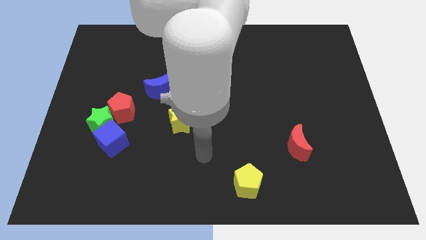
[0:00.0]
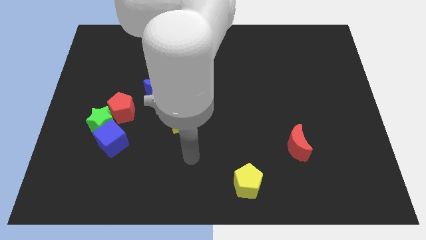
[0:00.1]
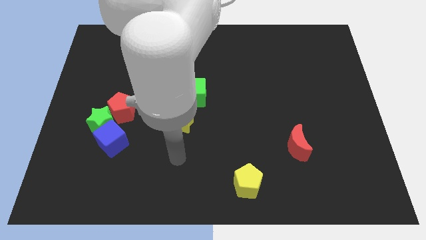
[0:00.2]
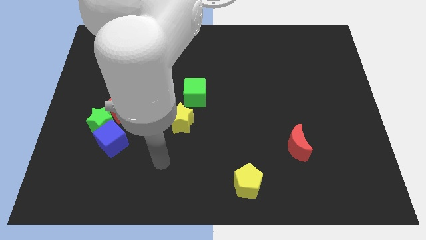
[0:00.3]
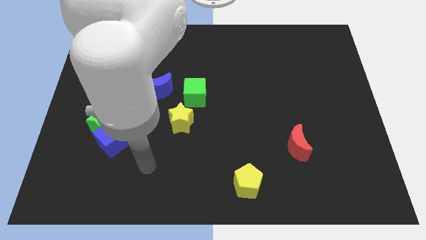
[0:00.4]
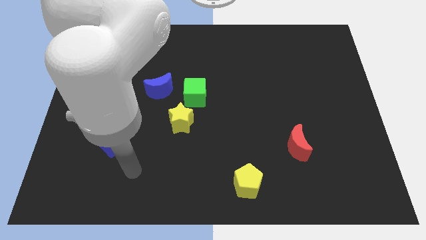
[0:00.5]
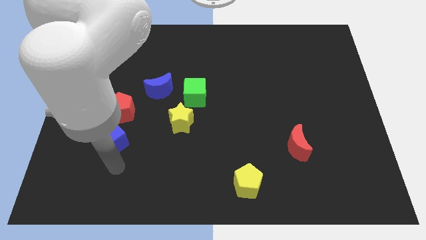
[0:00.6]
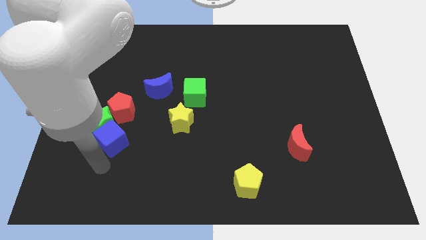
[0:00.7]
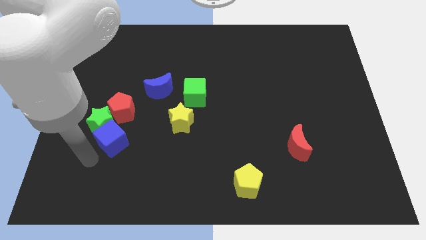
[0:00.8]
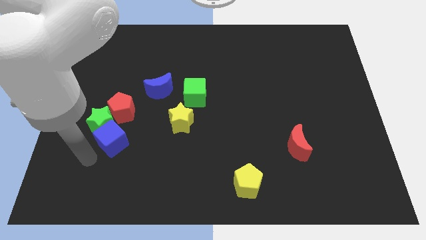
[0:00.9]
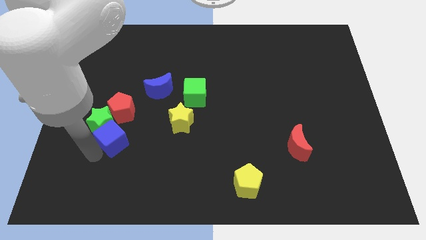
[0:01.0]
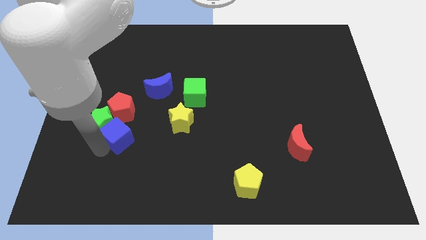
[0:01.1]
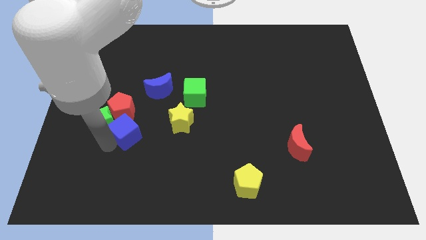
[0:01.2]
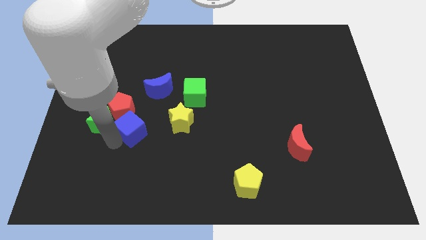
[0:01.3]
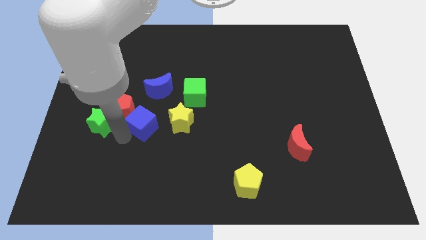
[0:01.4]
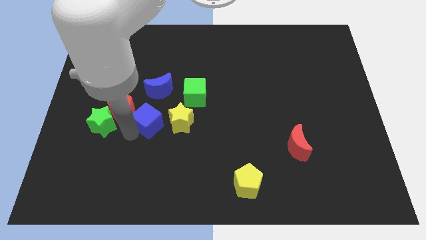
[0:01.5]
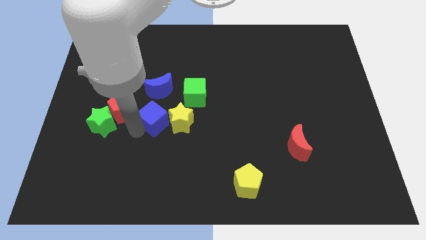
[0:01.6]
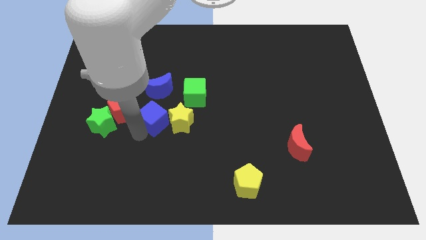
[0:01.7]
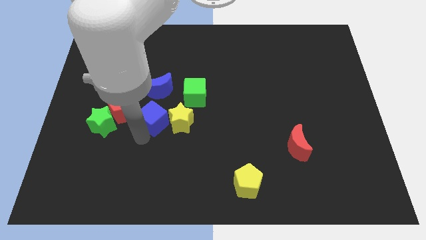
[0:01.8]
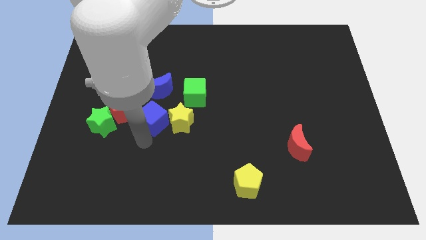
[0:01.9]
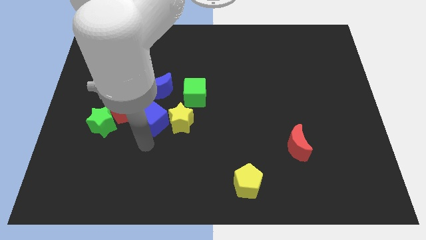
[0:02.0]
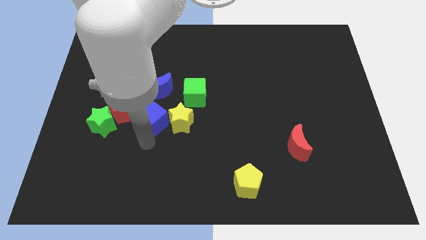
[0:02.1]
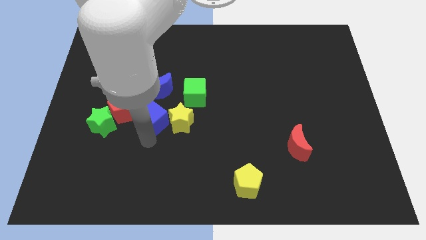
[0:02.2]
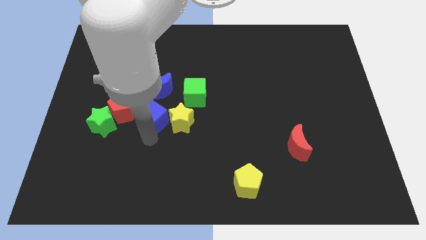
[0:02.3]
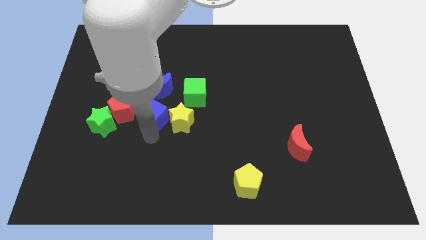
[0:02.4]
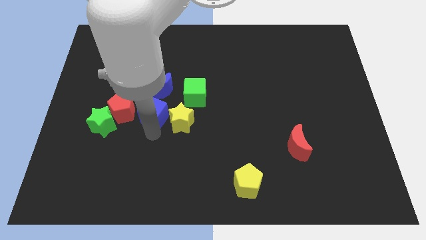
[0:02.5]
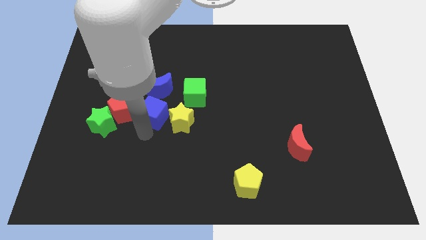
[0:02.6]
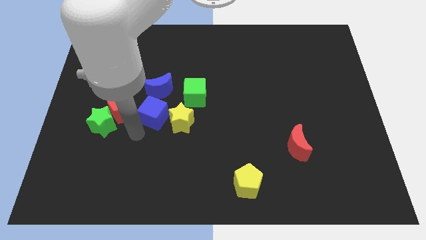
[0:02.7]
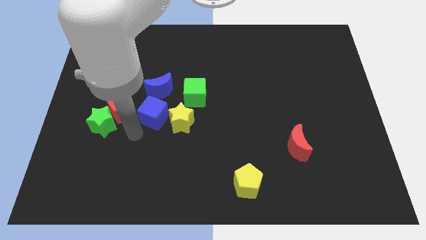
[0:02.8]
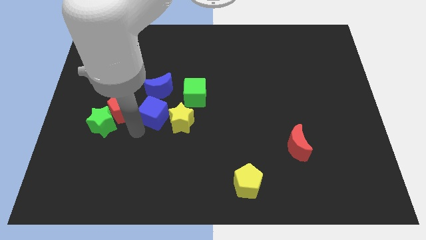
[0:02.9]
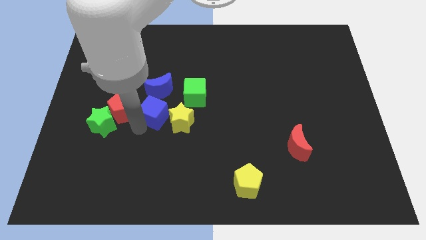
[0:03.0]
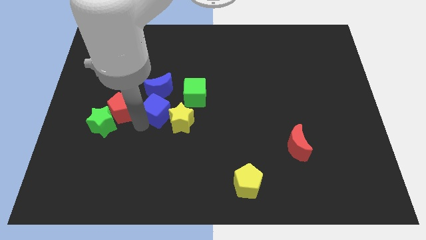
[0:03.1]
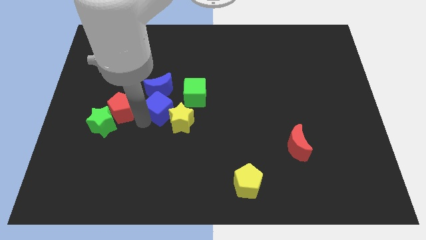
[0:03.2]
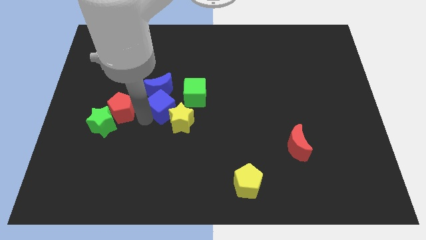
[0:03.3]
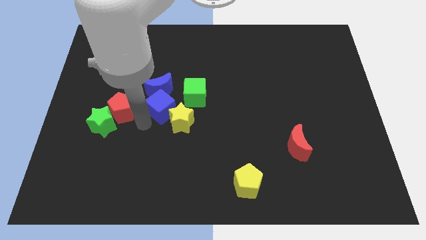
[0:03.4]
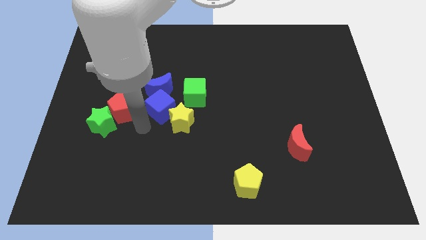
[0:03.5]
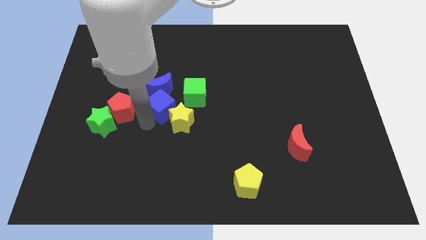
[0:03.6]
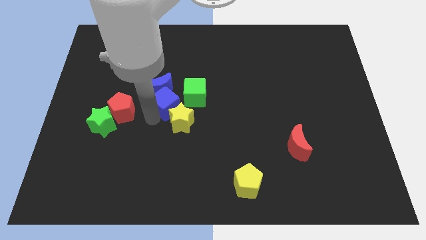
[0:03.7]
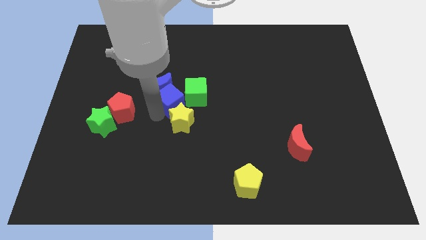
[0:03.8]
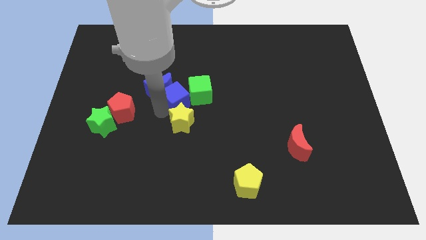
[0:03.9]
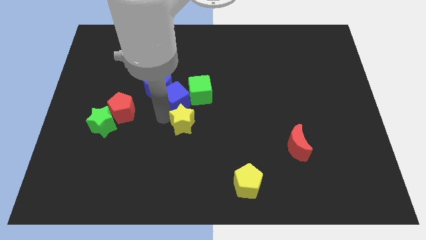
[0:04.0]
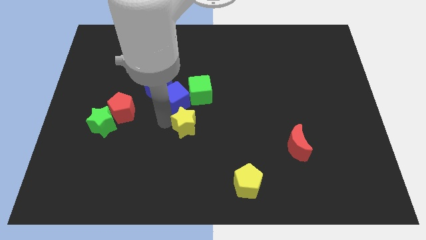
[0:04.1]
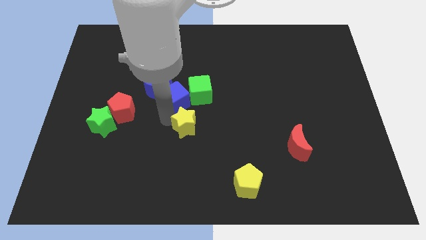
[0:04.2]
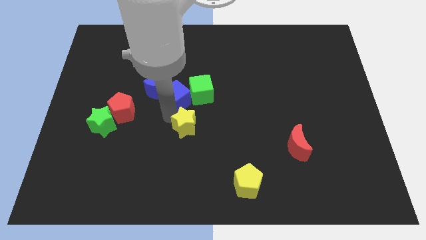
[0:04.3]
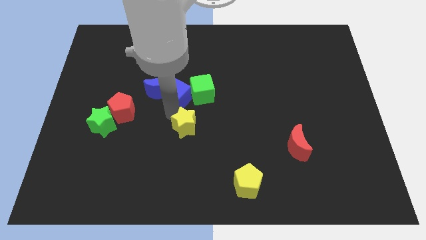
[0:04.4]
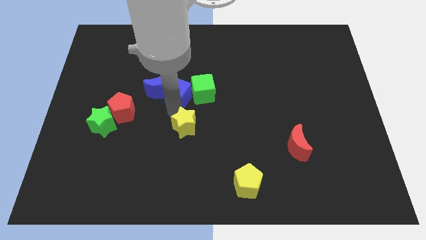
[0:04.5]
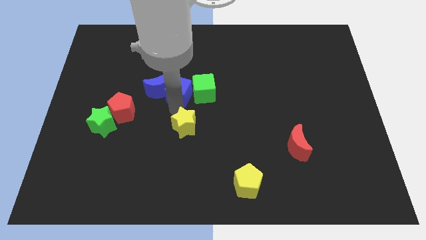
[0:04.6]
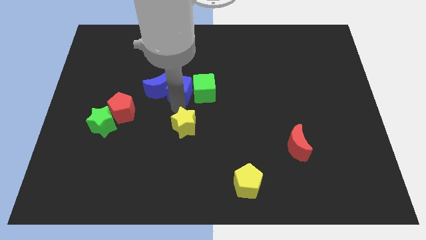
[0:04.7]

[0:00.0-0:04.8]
push the blue cube diagonally upwards and right

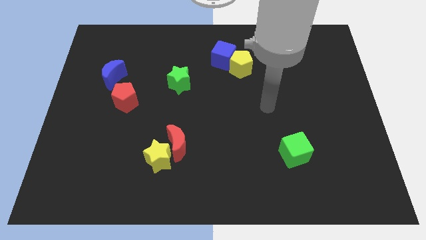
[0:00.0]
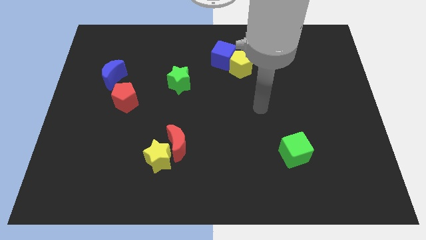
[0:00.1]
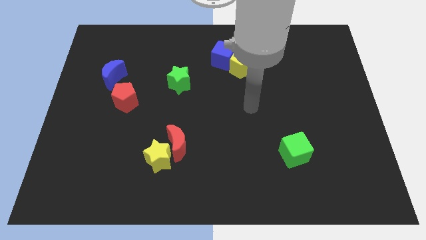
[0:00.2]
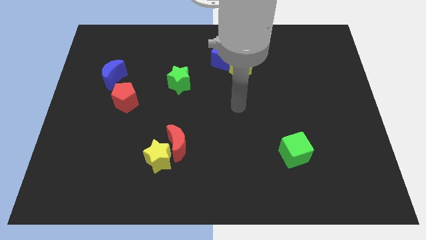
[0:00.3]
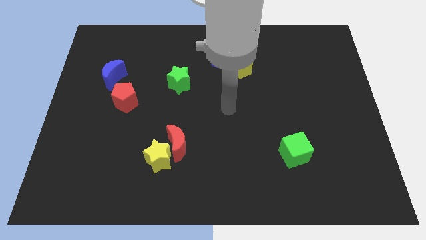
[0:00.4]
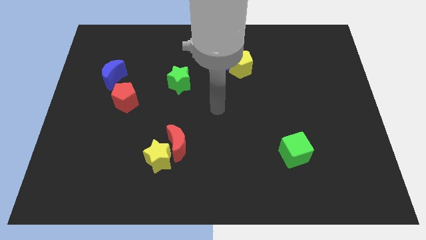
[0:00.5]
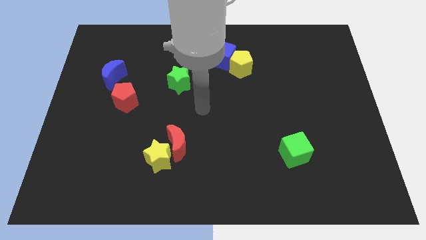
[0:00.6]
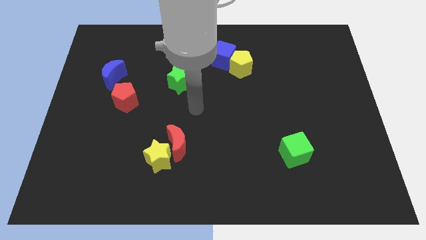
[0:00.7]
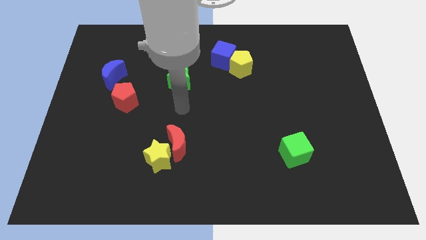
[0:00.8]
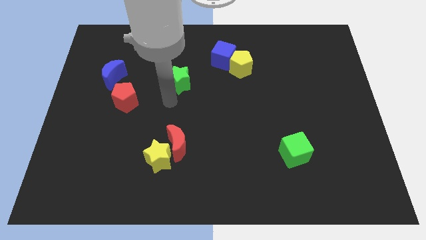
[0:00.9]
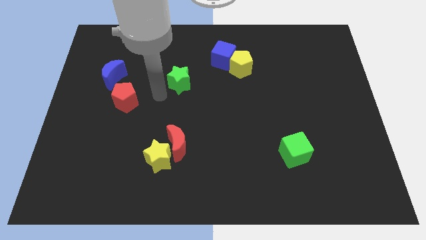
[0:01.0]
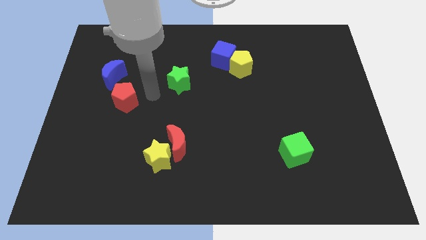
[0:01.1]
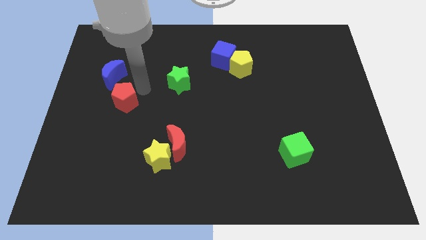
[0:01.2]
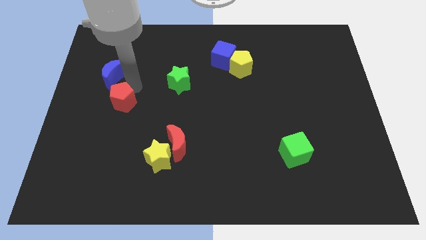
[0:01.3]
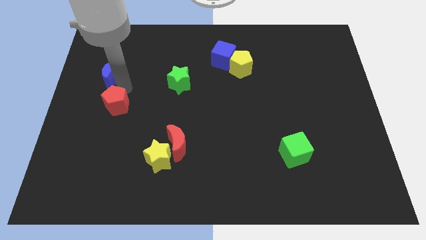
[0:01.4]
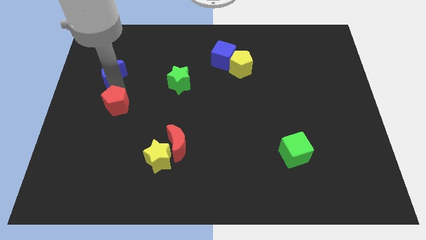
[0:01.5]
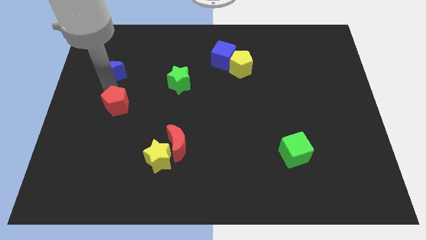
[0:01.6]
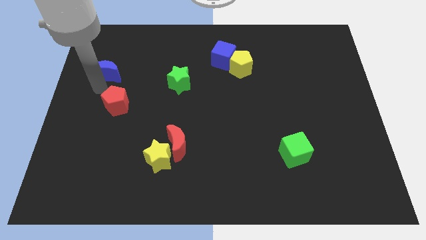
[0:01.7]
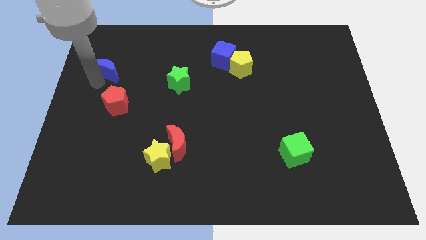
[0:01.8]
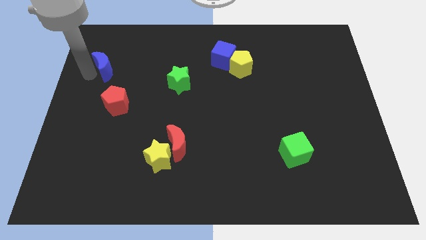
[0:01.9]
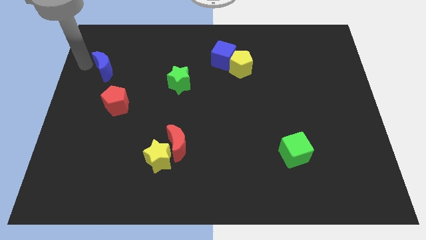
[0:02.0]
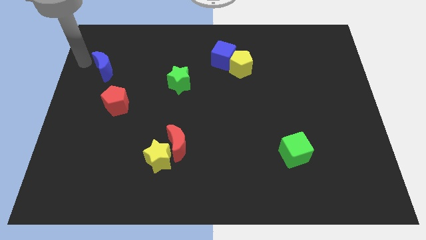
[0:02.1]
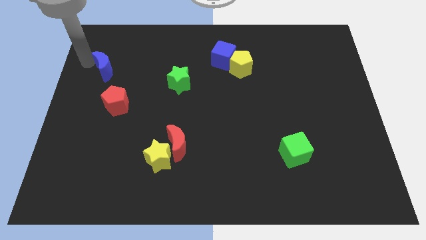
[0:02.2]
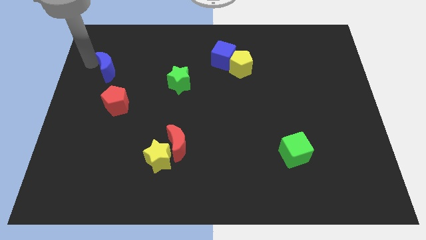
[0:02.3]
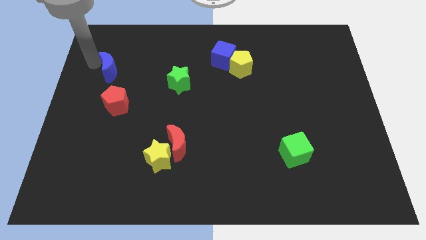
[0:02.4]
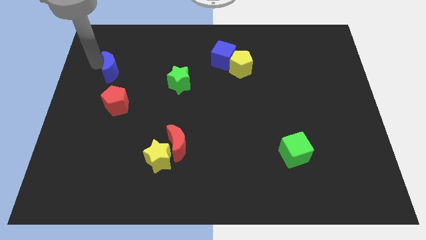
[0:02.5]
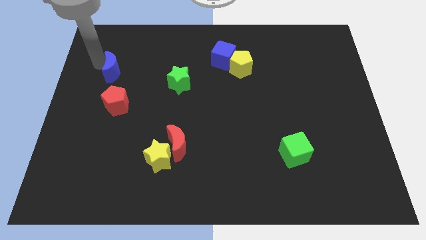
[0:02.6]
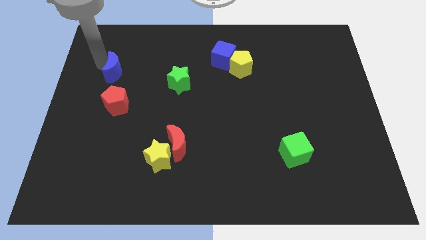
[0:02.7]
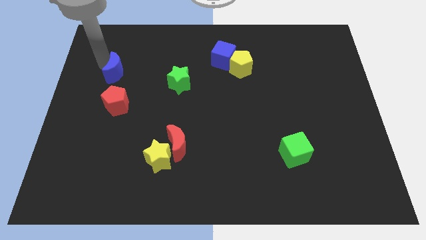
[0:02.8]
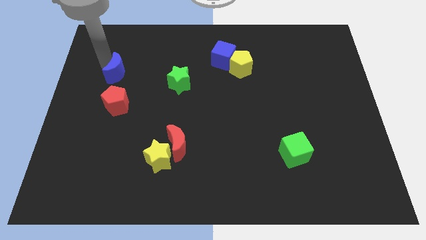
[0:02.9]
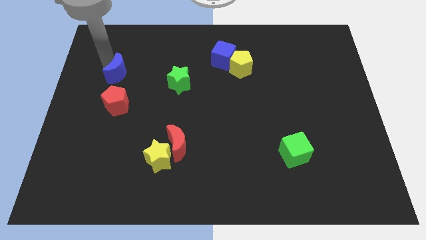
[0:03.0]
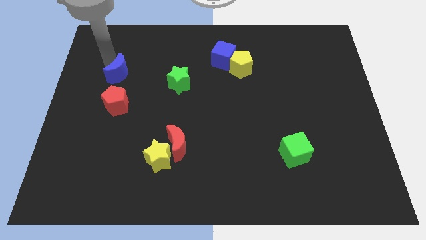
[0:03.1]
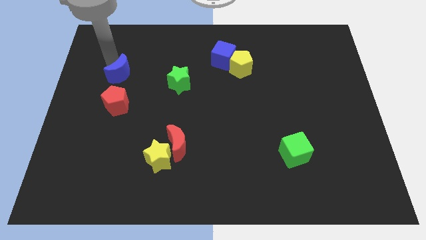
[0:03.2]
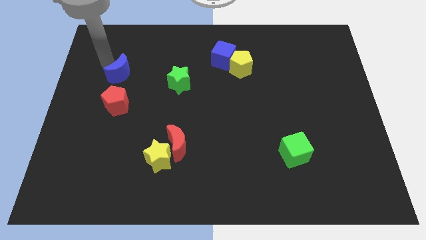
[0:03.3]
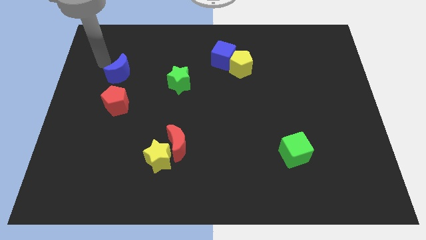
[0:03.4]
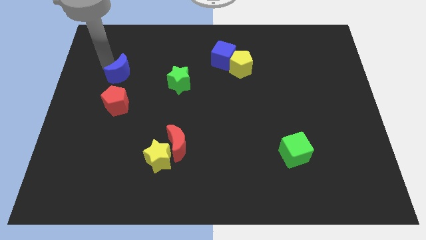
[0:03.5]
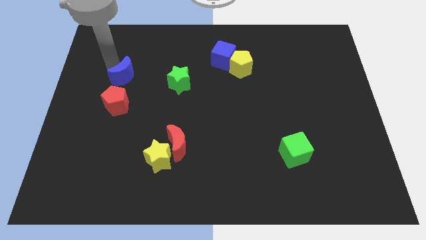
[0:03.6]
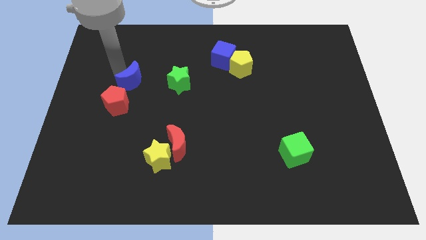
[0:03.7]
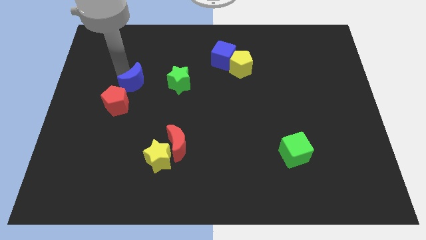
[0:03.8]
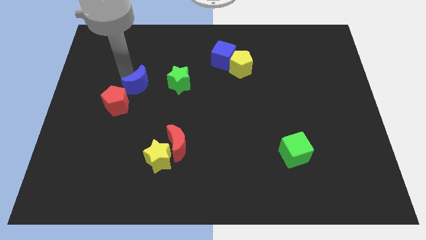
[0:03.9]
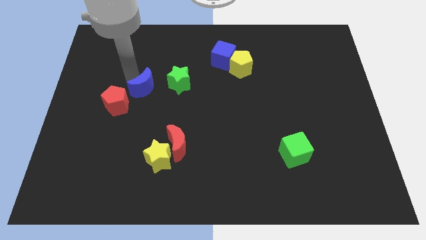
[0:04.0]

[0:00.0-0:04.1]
slide the blue moon downwards and right diagonally a little bit
